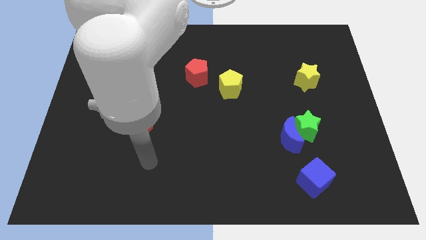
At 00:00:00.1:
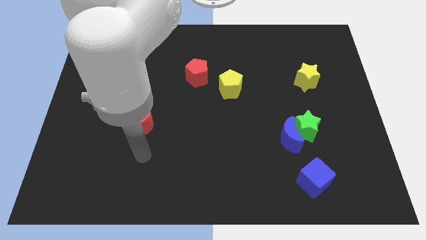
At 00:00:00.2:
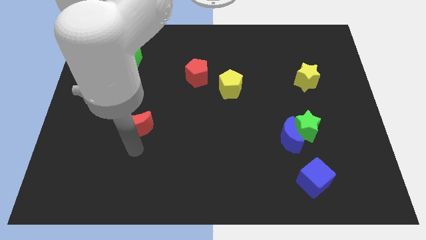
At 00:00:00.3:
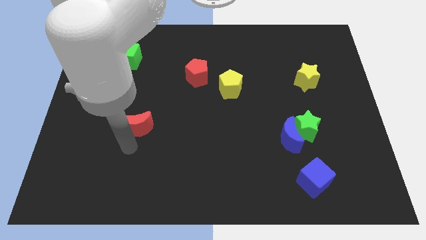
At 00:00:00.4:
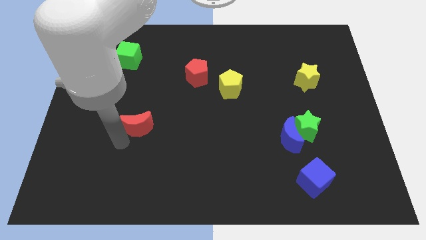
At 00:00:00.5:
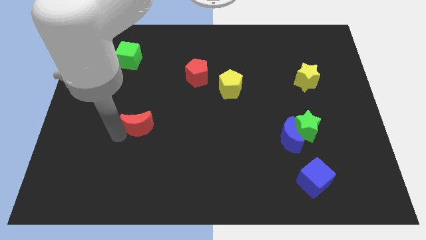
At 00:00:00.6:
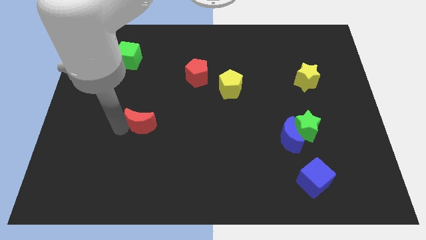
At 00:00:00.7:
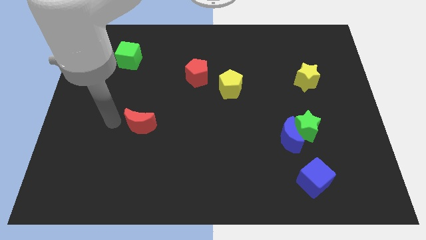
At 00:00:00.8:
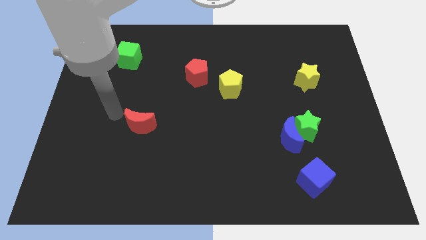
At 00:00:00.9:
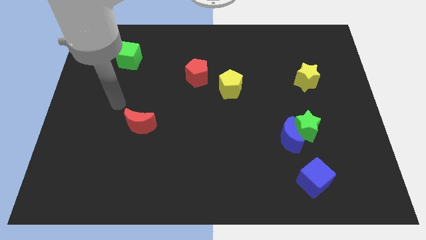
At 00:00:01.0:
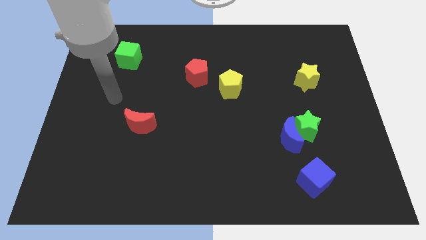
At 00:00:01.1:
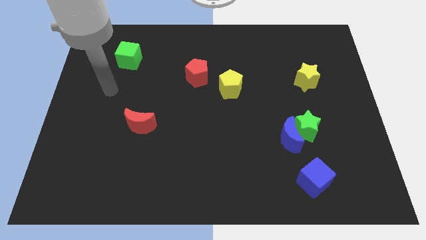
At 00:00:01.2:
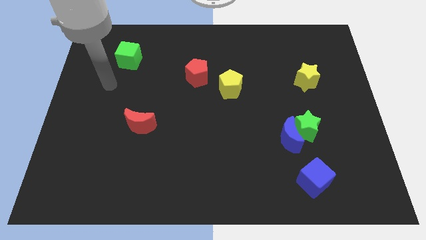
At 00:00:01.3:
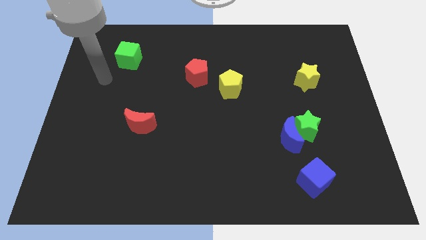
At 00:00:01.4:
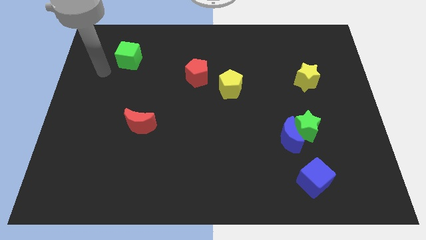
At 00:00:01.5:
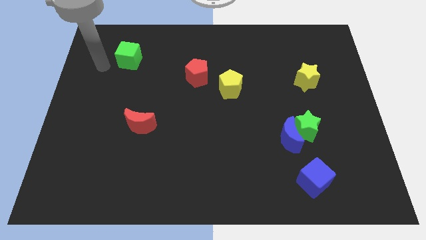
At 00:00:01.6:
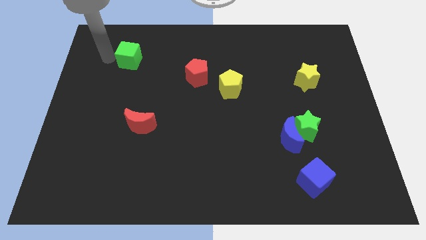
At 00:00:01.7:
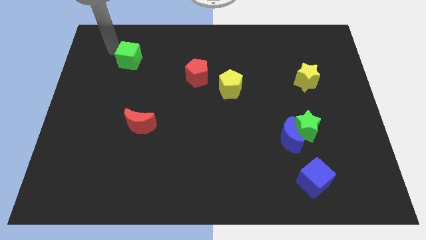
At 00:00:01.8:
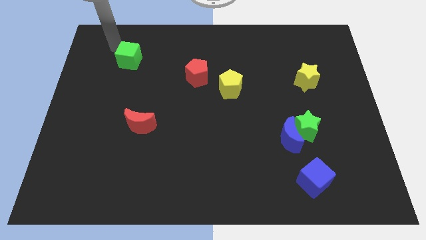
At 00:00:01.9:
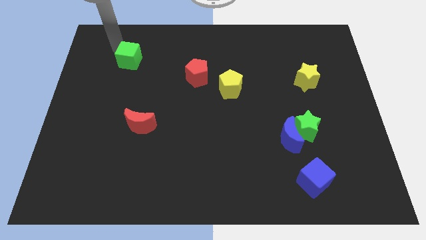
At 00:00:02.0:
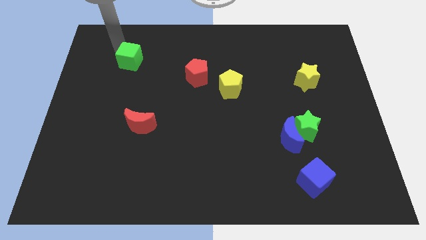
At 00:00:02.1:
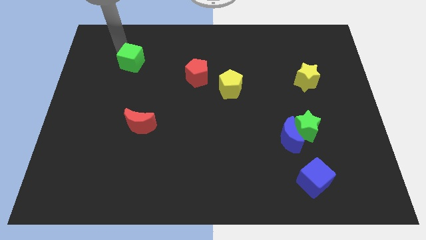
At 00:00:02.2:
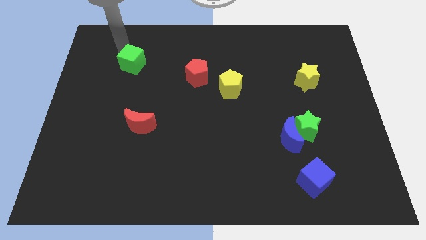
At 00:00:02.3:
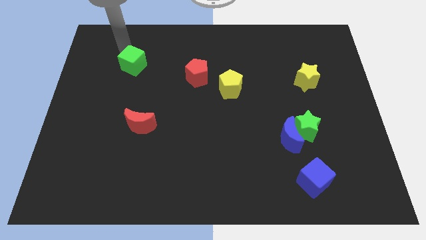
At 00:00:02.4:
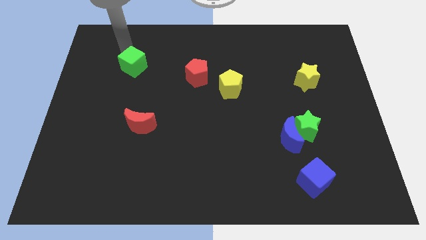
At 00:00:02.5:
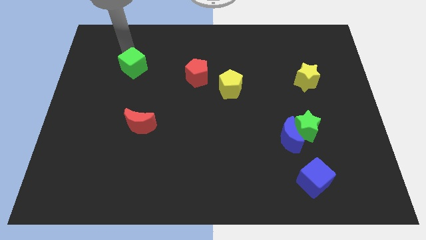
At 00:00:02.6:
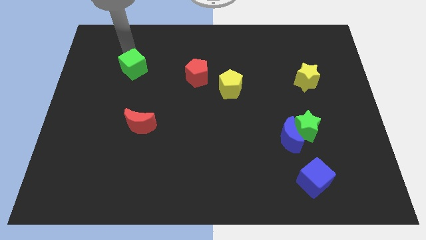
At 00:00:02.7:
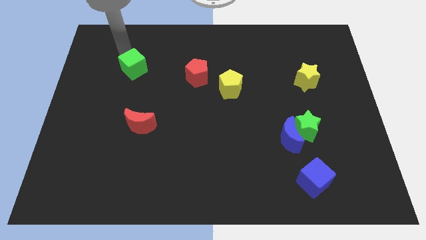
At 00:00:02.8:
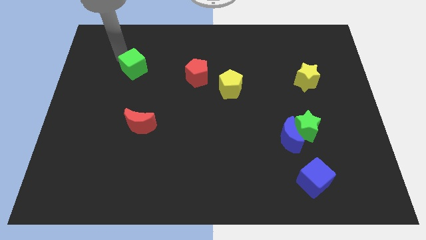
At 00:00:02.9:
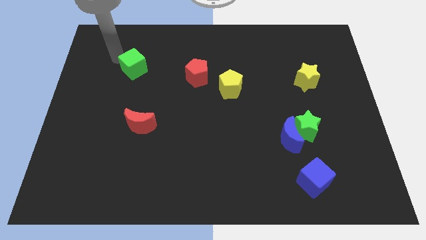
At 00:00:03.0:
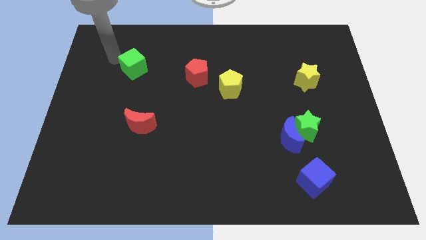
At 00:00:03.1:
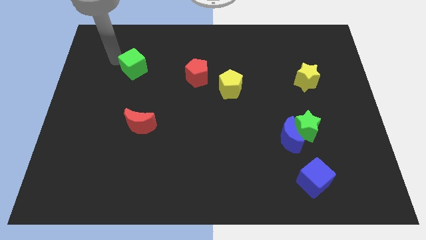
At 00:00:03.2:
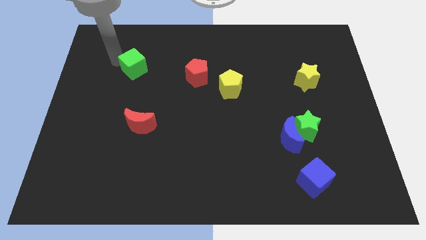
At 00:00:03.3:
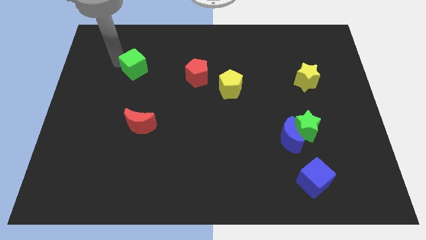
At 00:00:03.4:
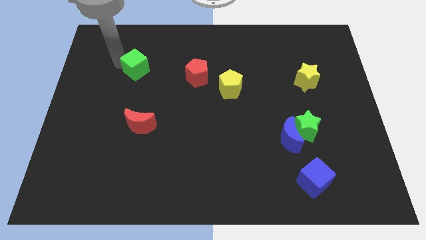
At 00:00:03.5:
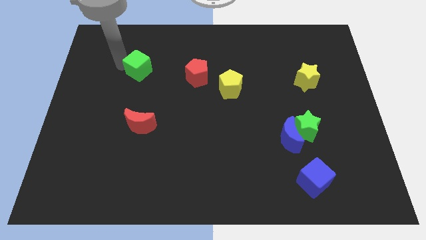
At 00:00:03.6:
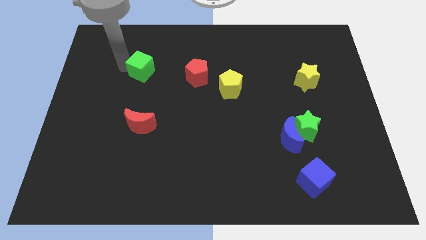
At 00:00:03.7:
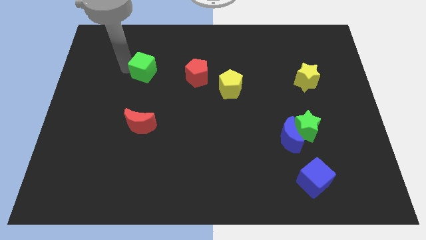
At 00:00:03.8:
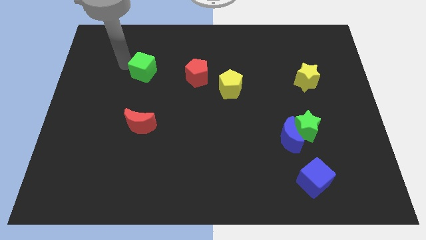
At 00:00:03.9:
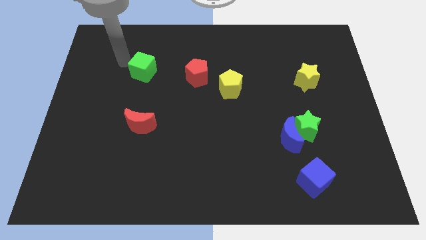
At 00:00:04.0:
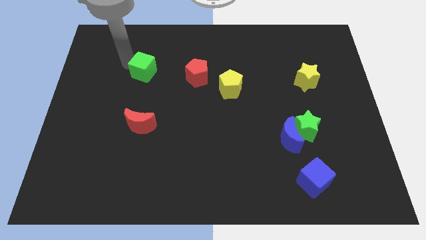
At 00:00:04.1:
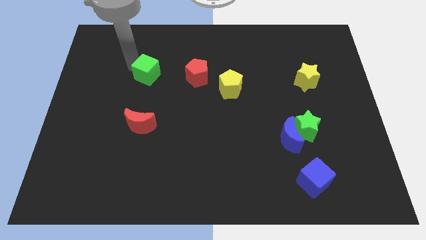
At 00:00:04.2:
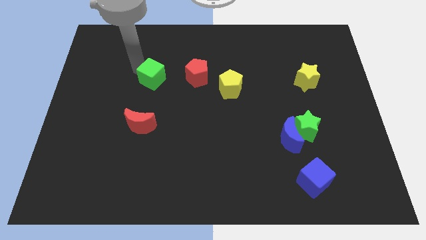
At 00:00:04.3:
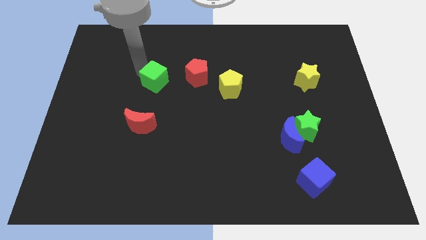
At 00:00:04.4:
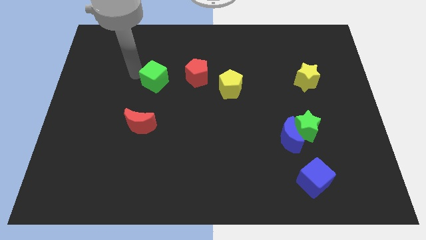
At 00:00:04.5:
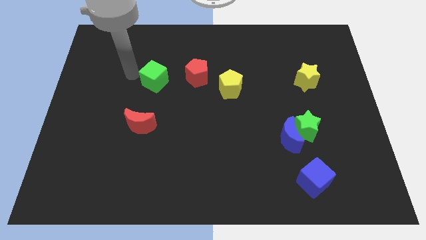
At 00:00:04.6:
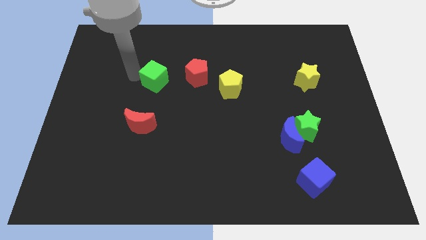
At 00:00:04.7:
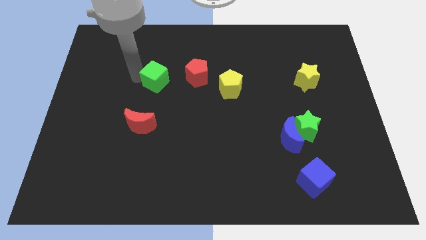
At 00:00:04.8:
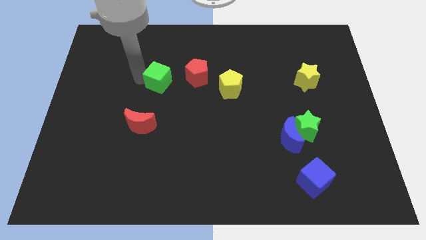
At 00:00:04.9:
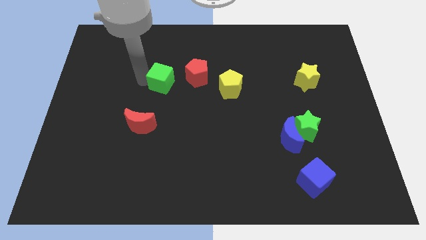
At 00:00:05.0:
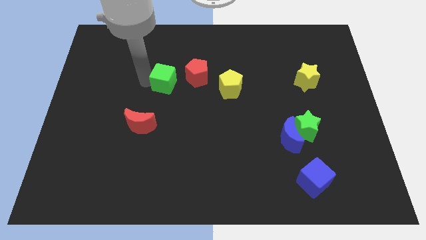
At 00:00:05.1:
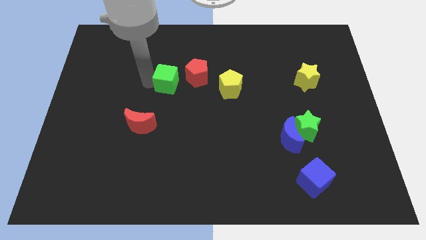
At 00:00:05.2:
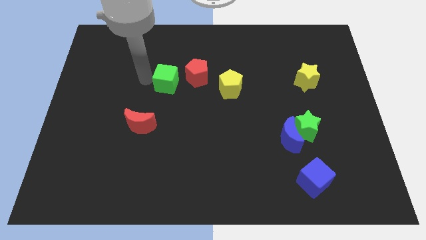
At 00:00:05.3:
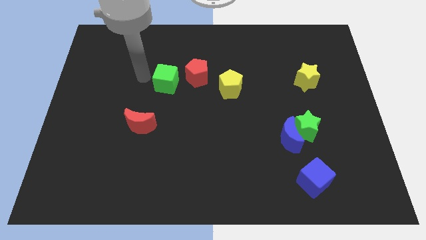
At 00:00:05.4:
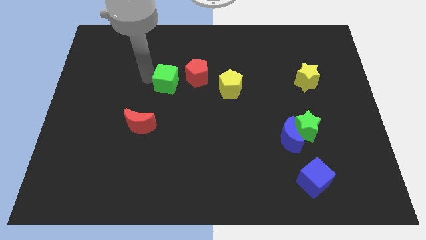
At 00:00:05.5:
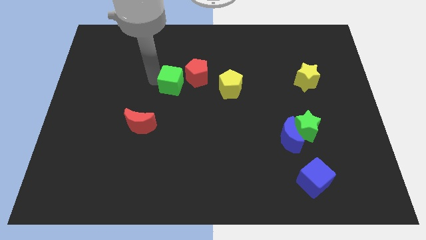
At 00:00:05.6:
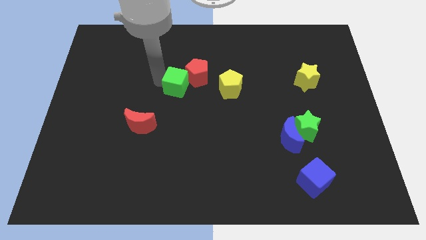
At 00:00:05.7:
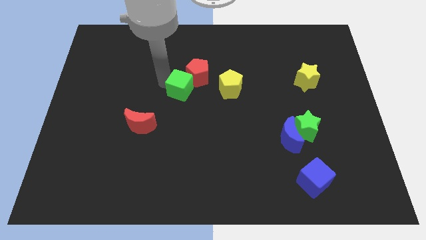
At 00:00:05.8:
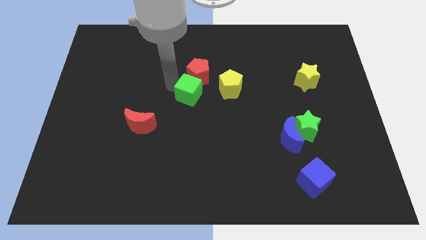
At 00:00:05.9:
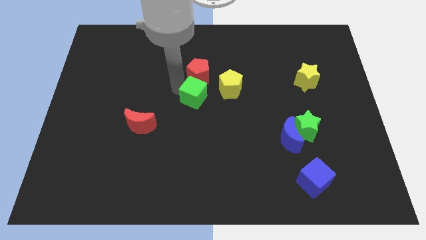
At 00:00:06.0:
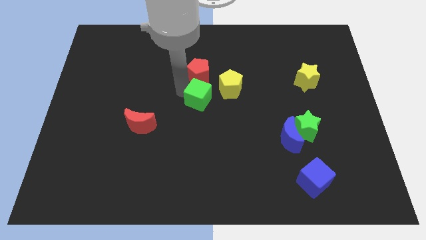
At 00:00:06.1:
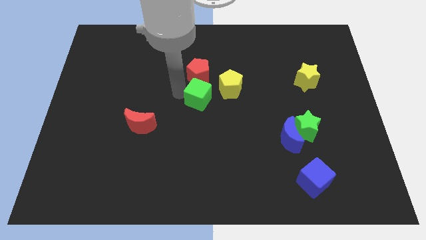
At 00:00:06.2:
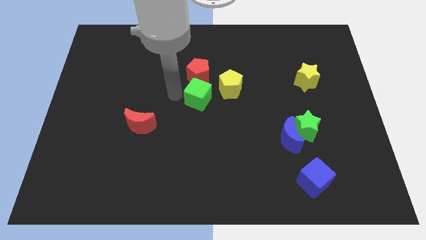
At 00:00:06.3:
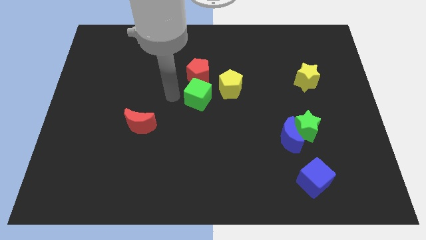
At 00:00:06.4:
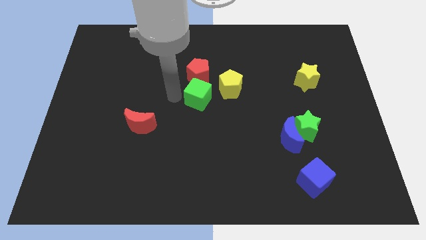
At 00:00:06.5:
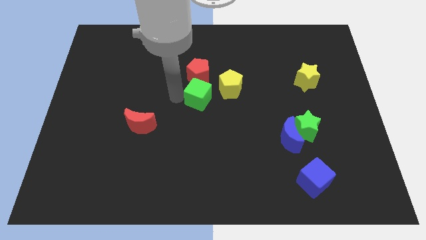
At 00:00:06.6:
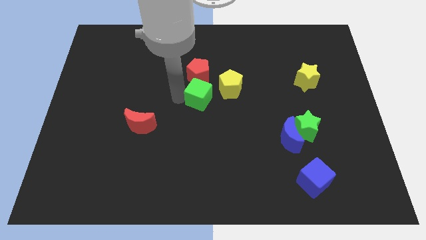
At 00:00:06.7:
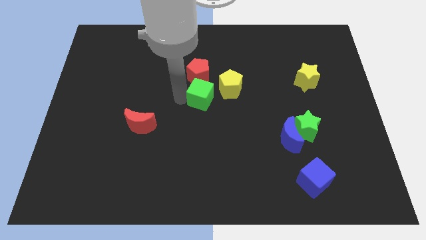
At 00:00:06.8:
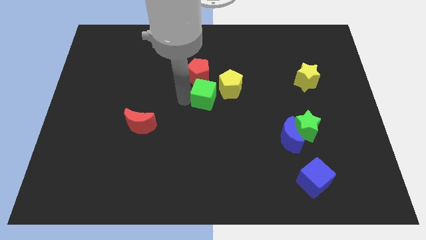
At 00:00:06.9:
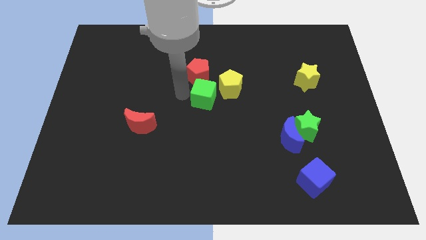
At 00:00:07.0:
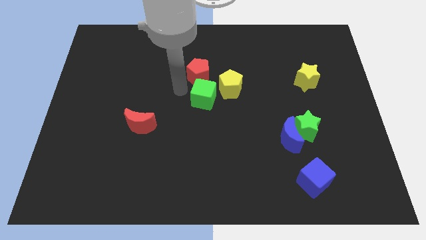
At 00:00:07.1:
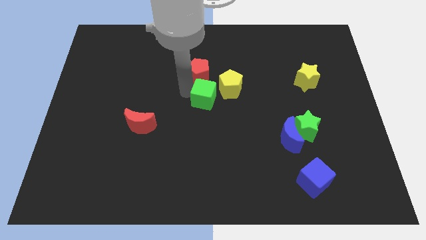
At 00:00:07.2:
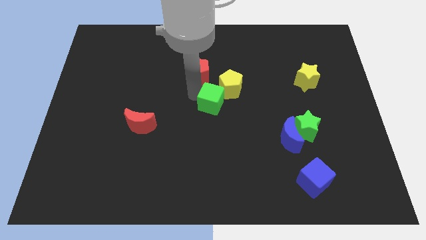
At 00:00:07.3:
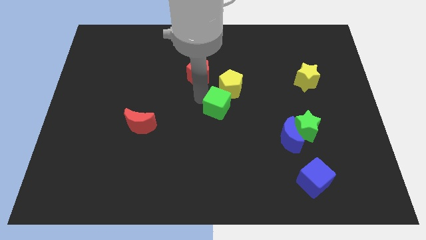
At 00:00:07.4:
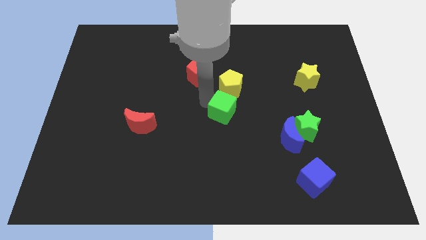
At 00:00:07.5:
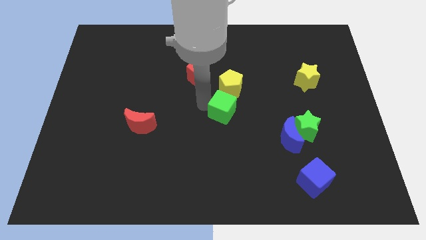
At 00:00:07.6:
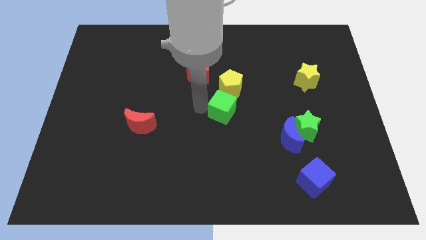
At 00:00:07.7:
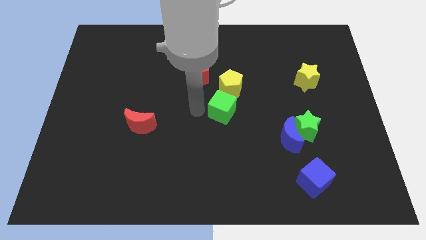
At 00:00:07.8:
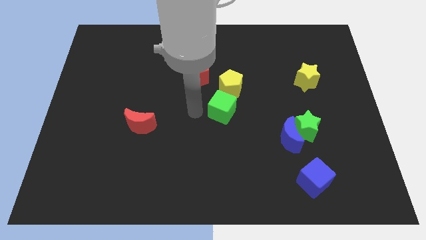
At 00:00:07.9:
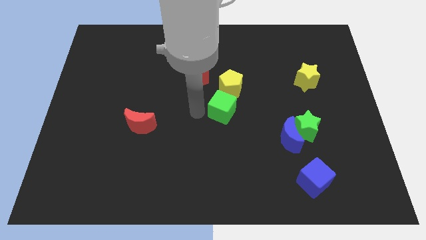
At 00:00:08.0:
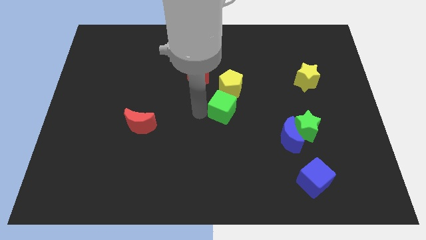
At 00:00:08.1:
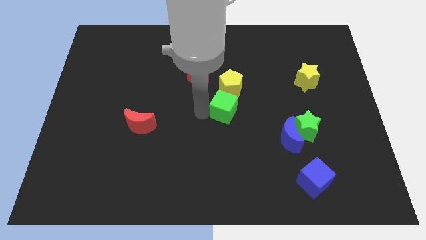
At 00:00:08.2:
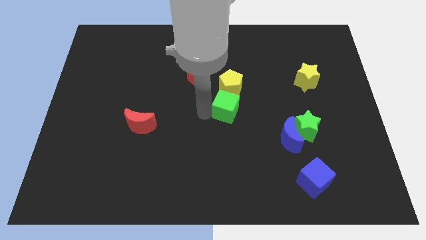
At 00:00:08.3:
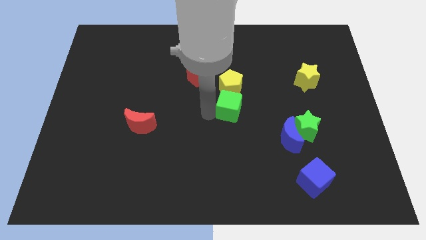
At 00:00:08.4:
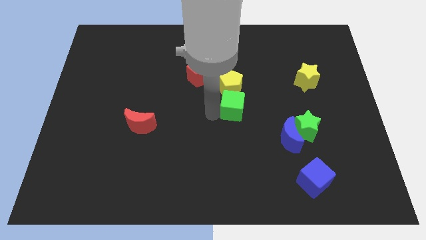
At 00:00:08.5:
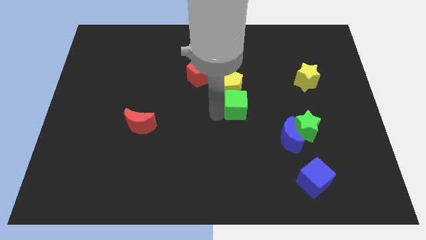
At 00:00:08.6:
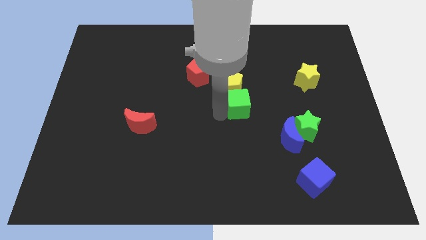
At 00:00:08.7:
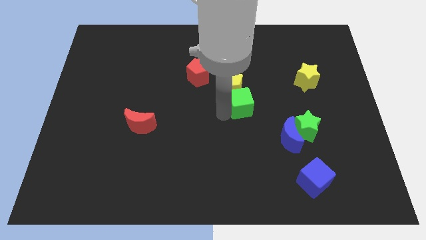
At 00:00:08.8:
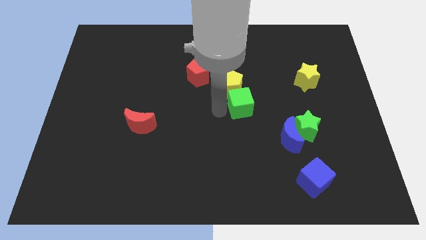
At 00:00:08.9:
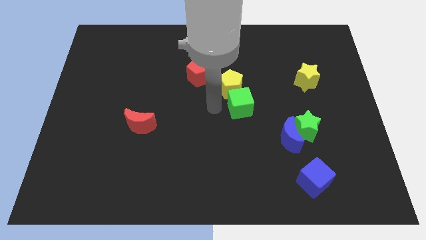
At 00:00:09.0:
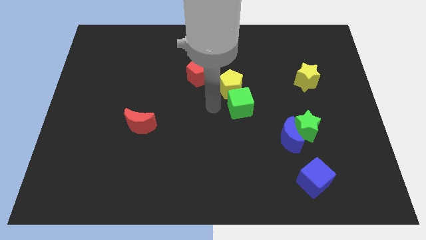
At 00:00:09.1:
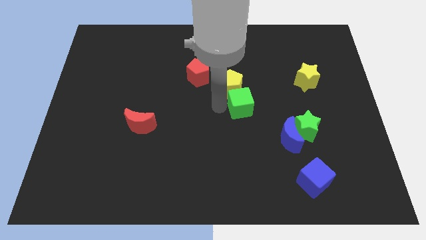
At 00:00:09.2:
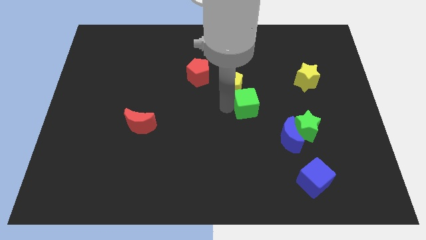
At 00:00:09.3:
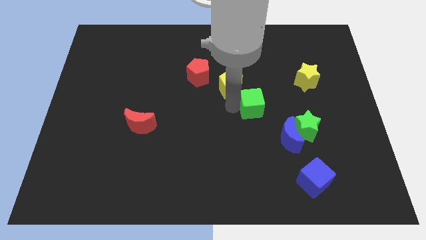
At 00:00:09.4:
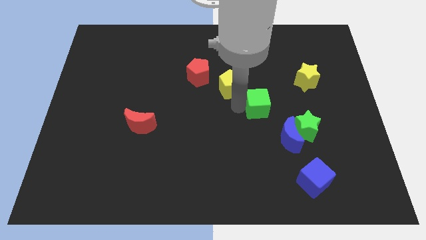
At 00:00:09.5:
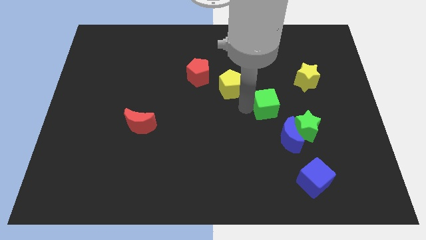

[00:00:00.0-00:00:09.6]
move the green cube to the top side of the blue moon
